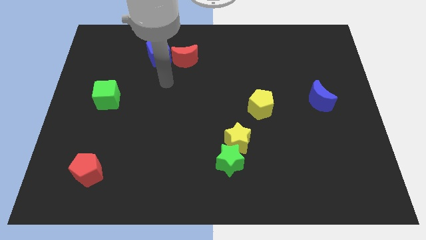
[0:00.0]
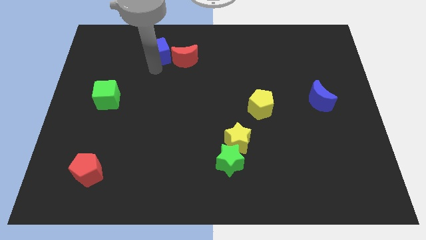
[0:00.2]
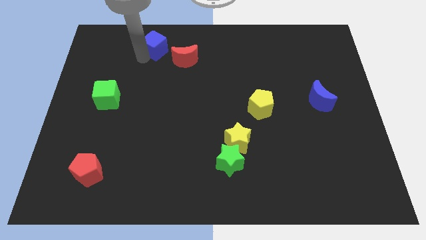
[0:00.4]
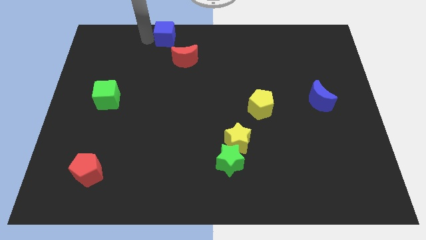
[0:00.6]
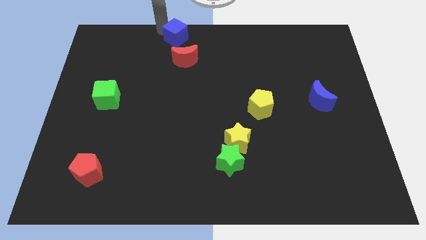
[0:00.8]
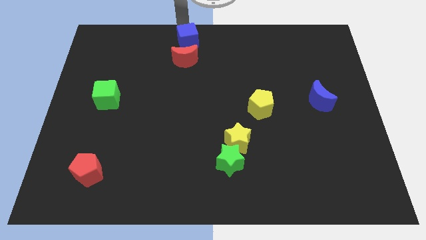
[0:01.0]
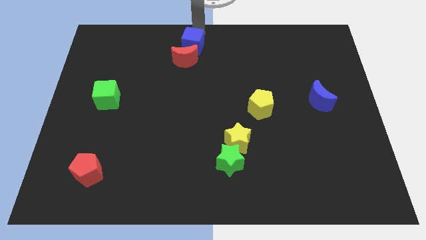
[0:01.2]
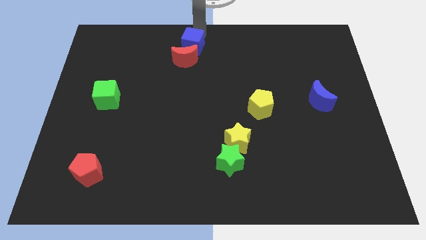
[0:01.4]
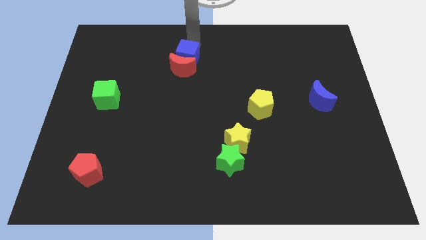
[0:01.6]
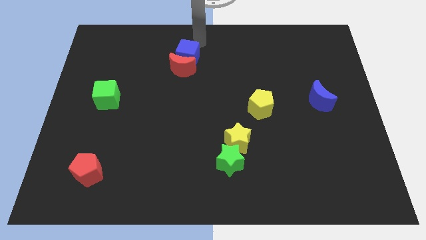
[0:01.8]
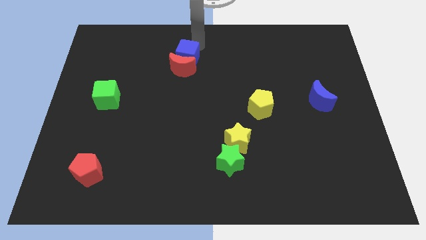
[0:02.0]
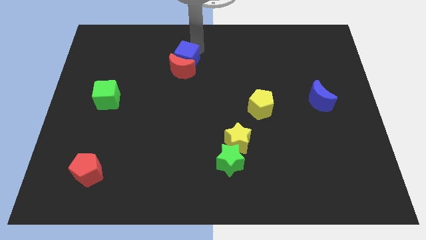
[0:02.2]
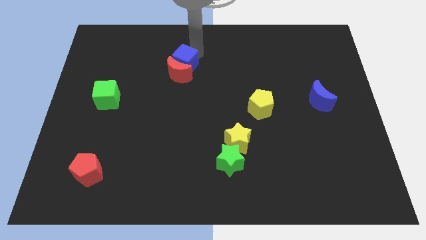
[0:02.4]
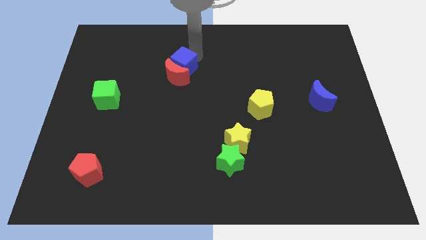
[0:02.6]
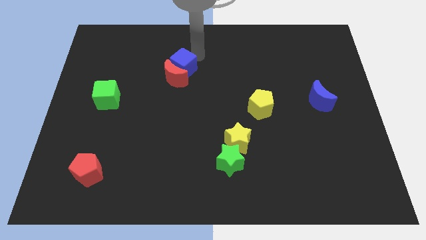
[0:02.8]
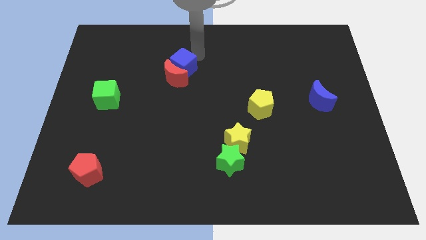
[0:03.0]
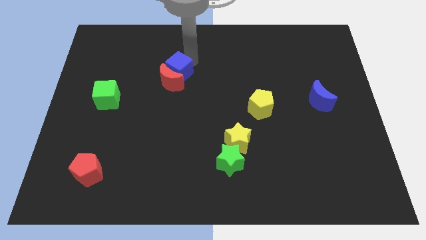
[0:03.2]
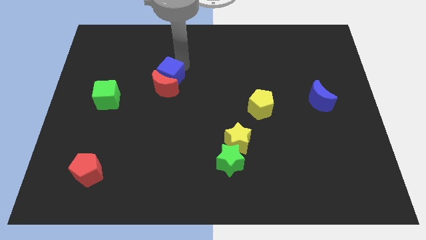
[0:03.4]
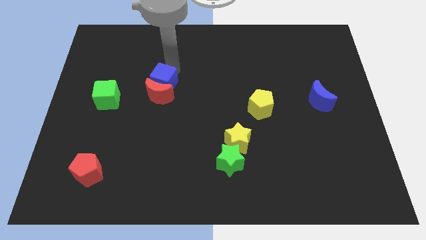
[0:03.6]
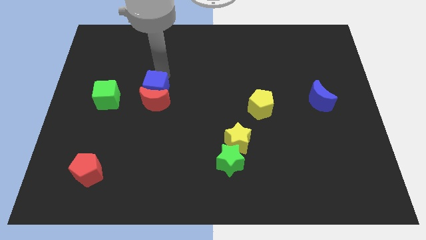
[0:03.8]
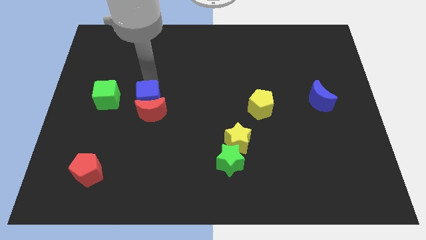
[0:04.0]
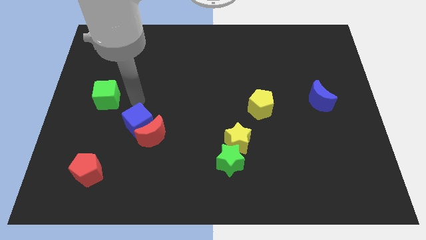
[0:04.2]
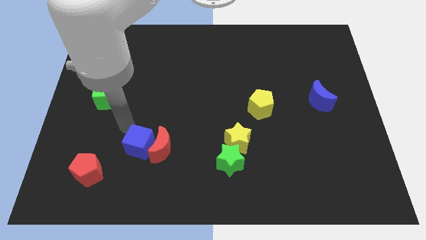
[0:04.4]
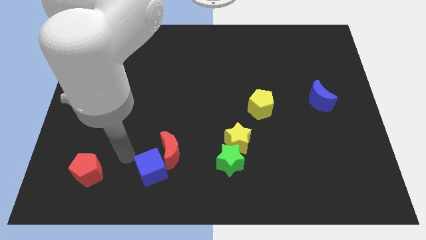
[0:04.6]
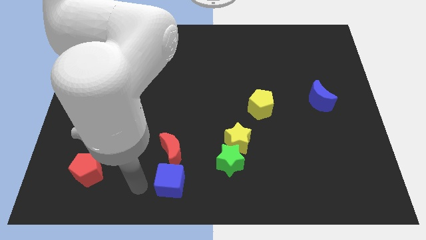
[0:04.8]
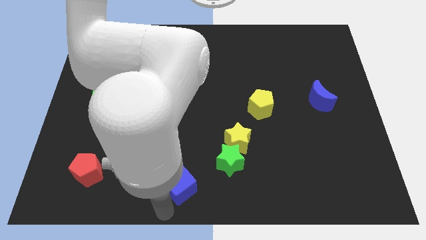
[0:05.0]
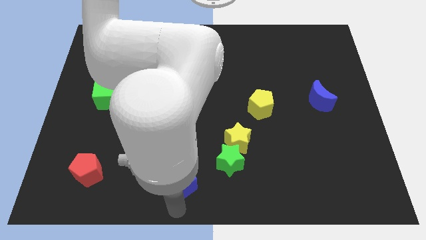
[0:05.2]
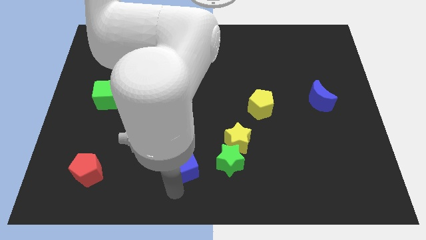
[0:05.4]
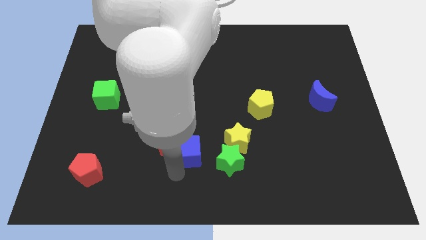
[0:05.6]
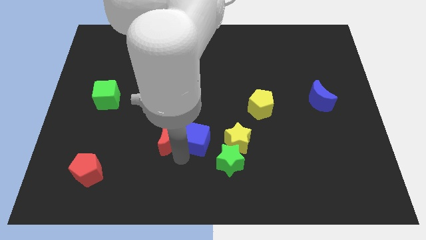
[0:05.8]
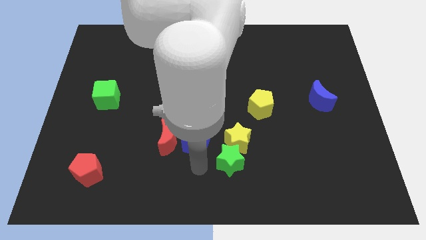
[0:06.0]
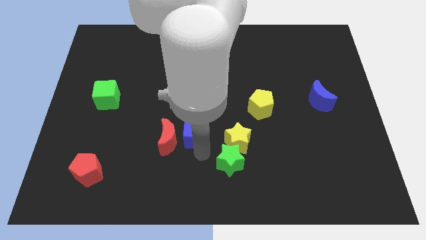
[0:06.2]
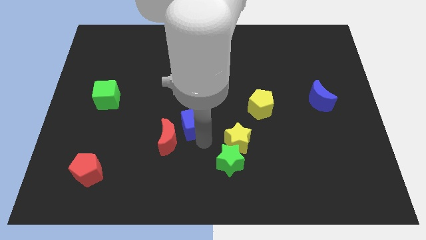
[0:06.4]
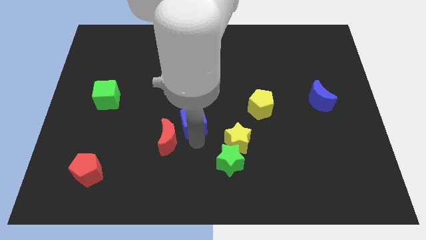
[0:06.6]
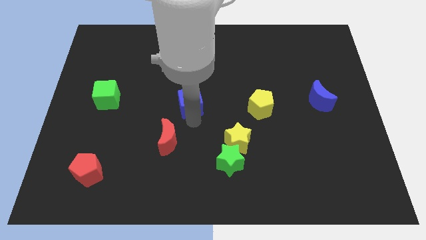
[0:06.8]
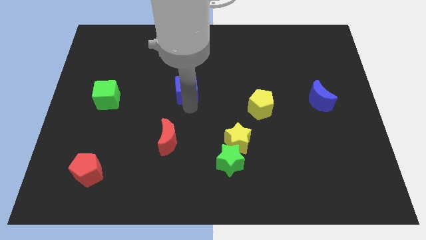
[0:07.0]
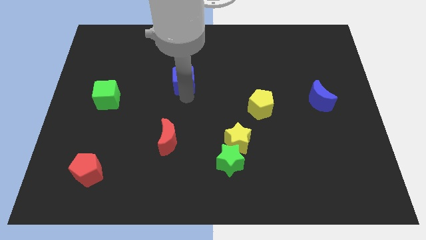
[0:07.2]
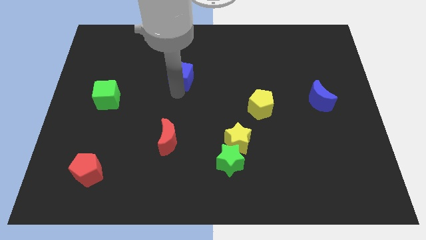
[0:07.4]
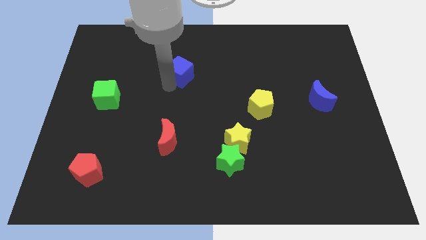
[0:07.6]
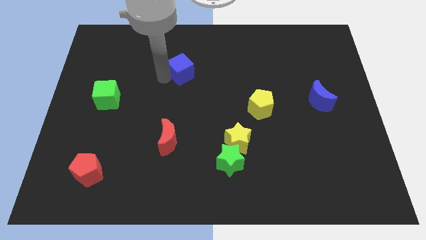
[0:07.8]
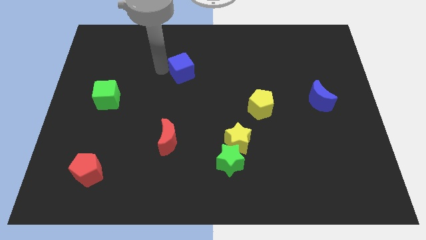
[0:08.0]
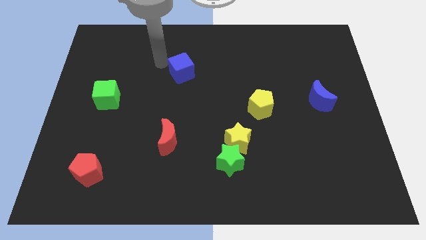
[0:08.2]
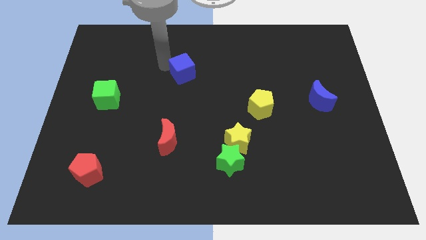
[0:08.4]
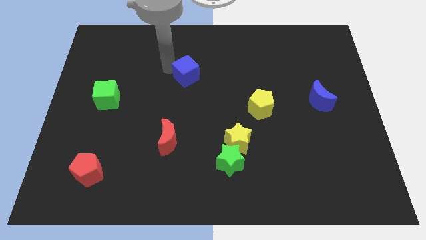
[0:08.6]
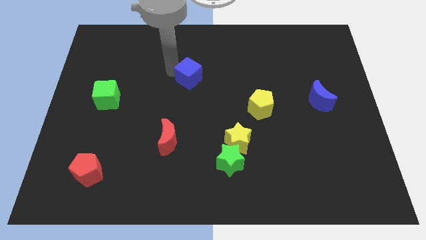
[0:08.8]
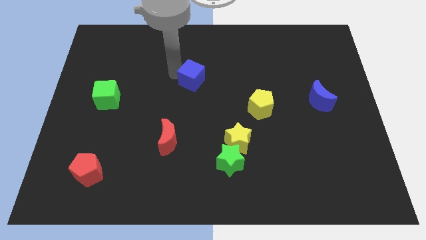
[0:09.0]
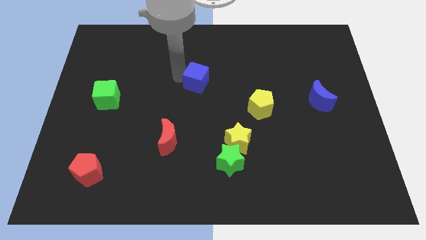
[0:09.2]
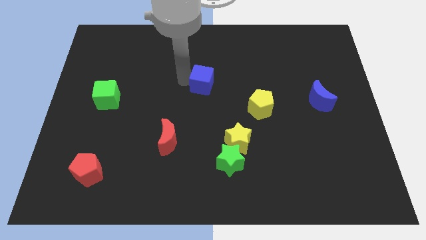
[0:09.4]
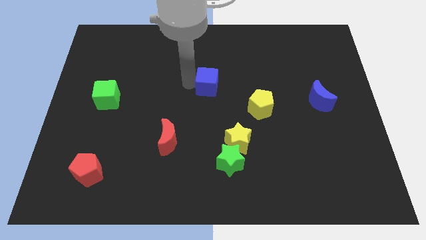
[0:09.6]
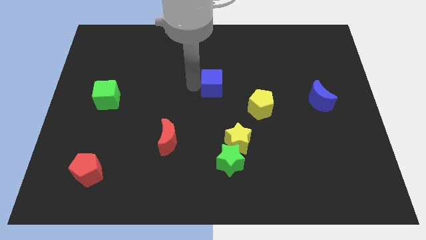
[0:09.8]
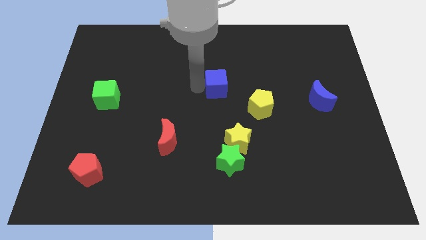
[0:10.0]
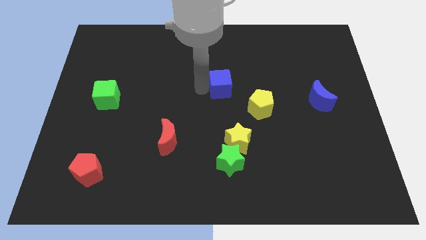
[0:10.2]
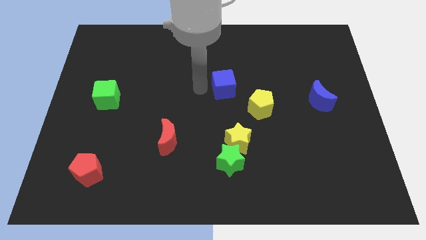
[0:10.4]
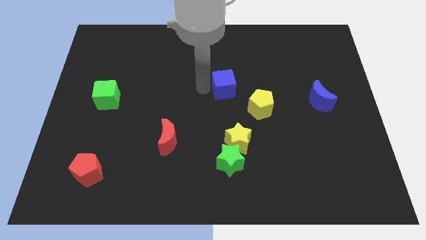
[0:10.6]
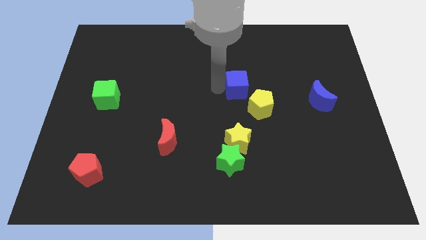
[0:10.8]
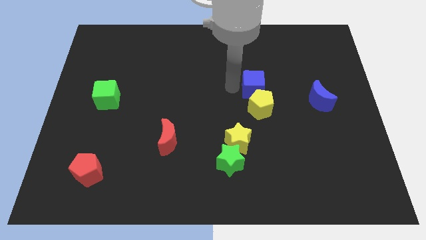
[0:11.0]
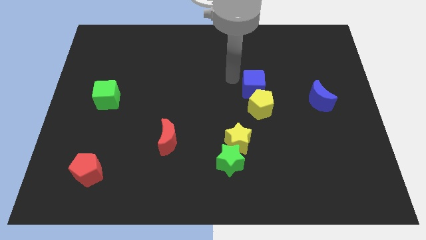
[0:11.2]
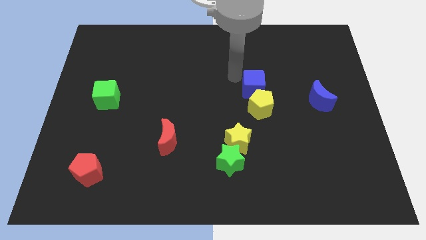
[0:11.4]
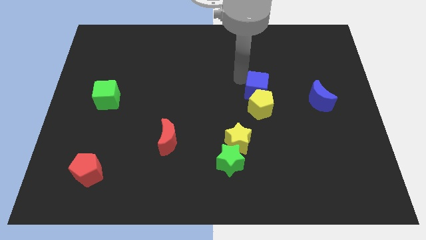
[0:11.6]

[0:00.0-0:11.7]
slide the blue cube to the left of the blue moon

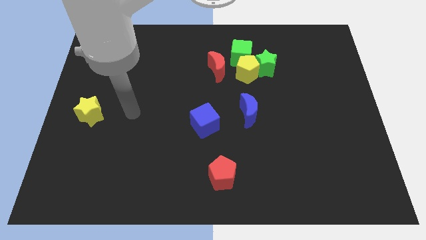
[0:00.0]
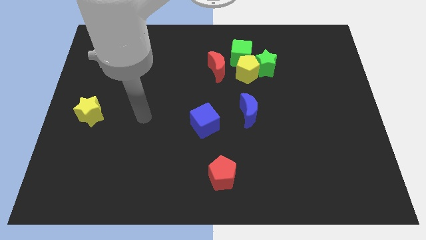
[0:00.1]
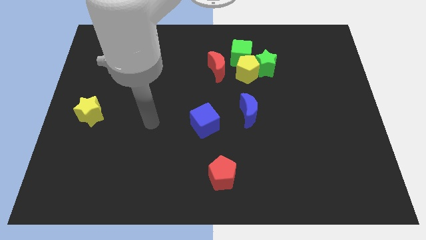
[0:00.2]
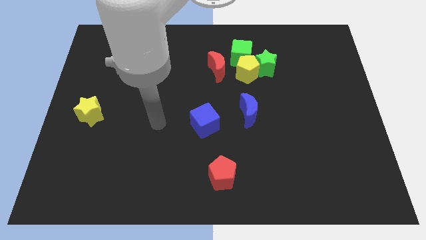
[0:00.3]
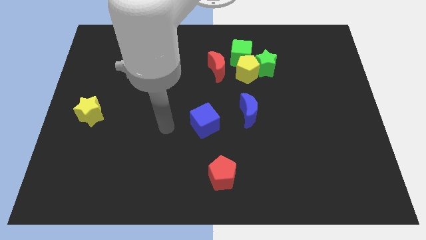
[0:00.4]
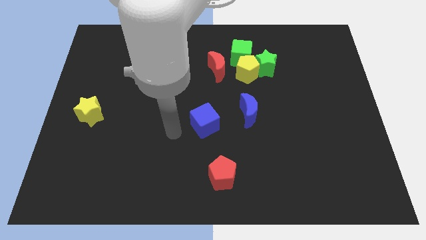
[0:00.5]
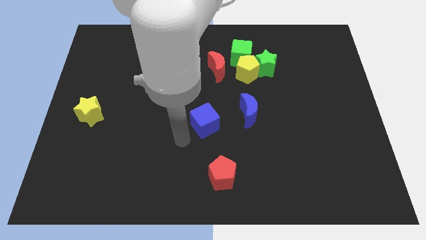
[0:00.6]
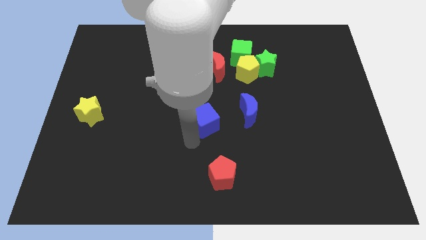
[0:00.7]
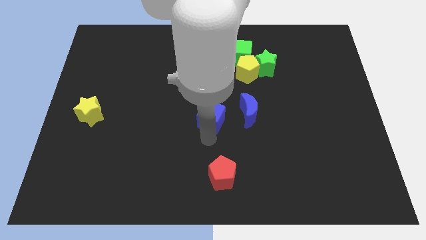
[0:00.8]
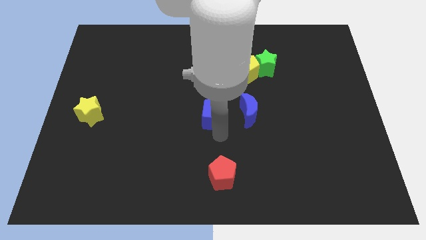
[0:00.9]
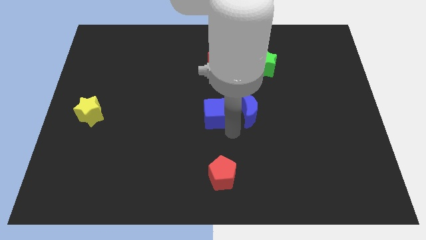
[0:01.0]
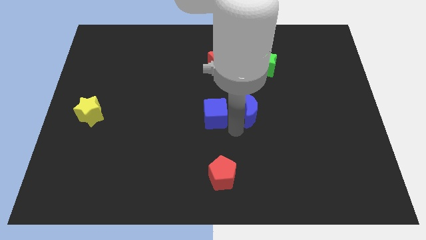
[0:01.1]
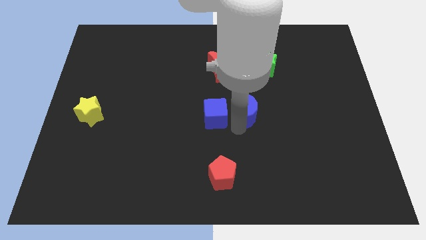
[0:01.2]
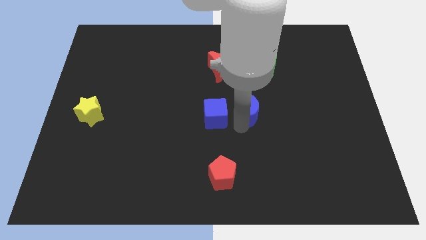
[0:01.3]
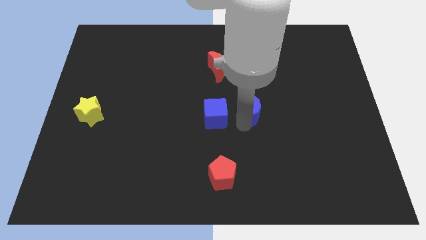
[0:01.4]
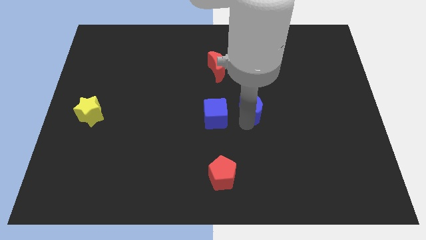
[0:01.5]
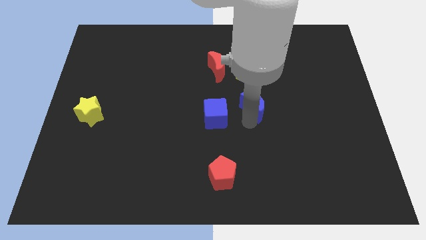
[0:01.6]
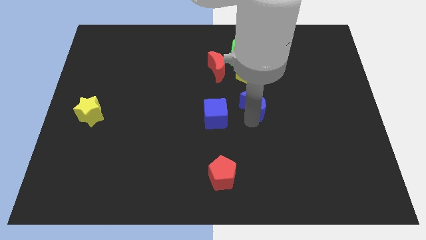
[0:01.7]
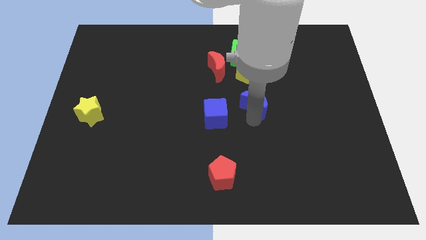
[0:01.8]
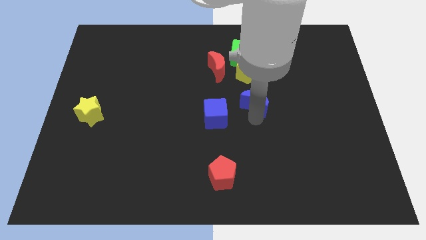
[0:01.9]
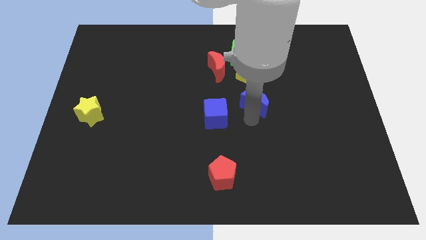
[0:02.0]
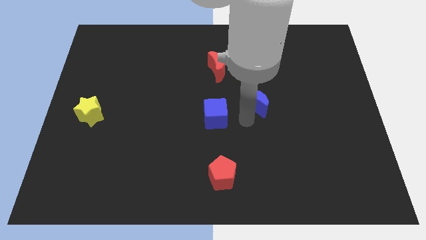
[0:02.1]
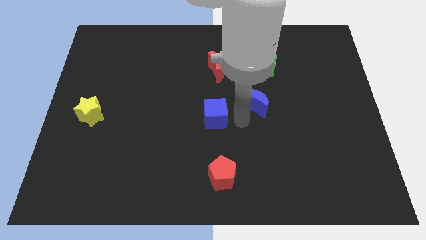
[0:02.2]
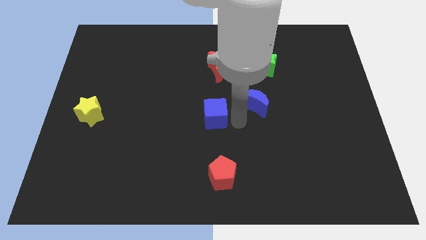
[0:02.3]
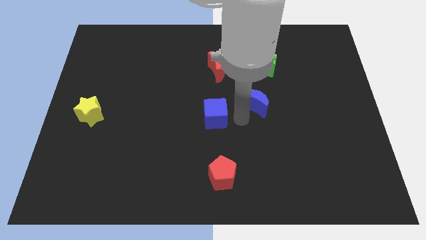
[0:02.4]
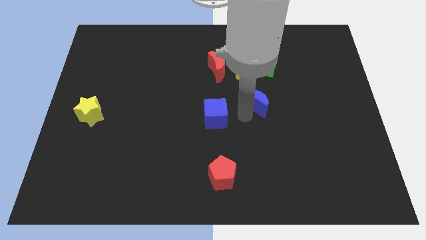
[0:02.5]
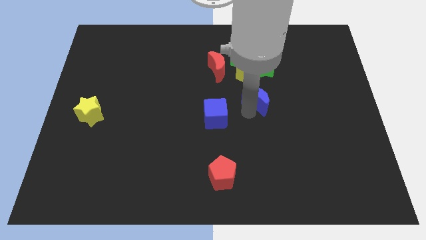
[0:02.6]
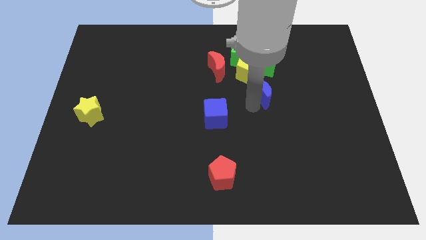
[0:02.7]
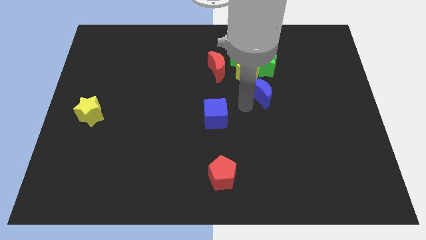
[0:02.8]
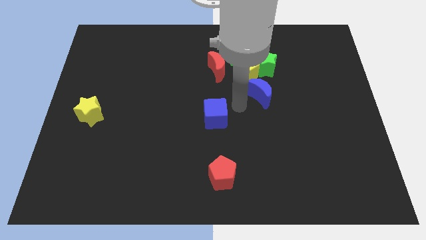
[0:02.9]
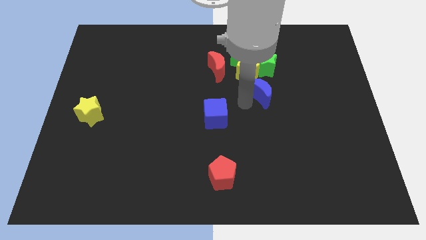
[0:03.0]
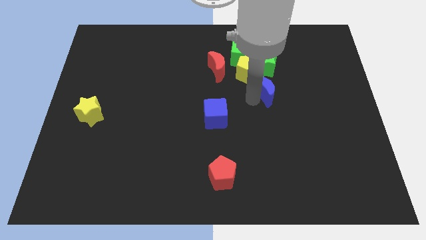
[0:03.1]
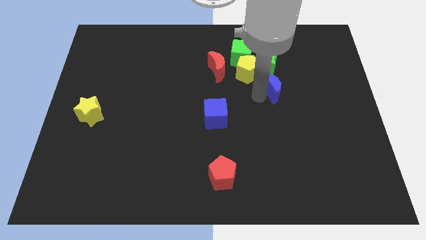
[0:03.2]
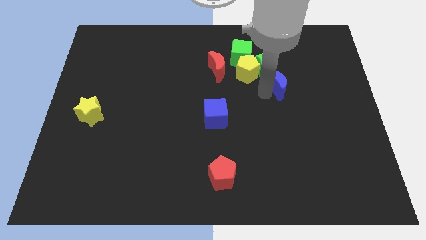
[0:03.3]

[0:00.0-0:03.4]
move the blue moon diagonally down and to the right of the green star
